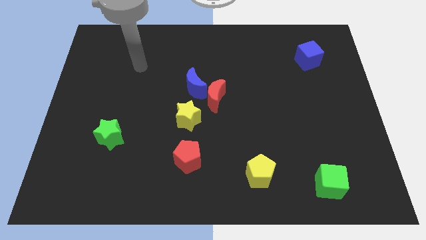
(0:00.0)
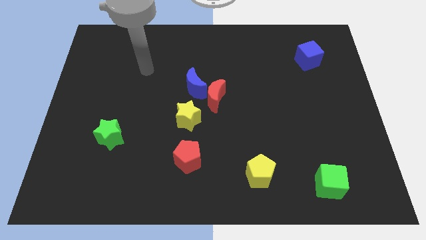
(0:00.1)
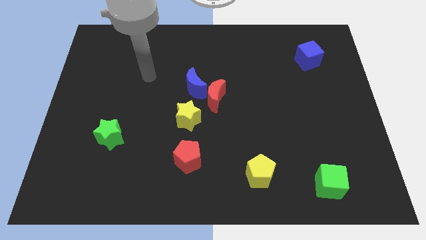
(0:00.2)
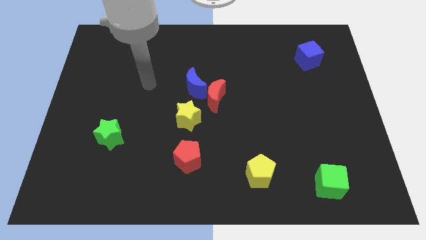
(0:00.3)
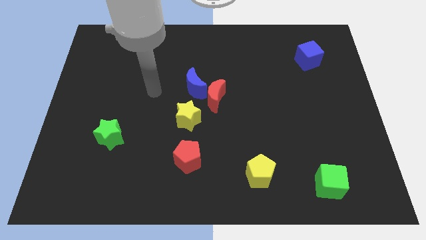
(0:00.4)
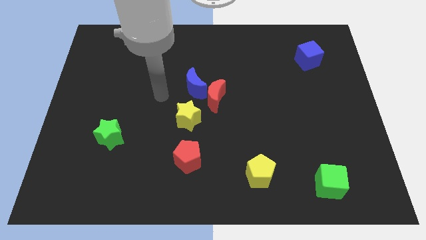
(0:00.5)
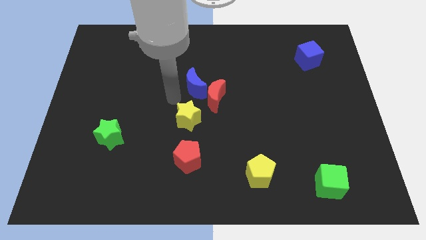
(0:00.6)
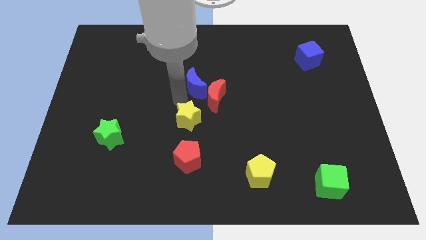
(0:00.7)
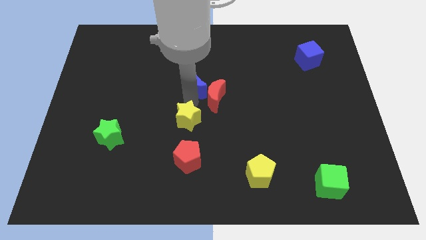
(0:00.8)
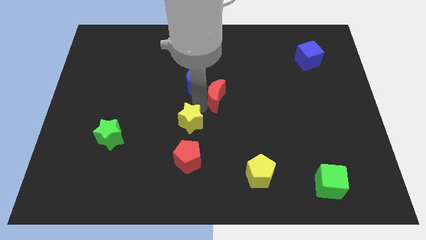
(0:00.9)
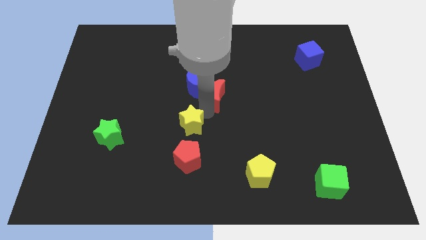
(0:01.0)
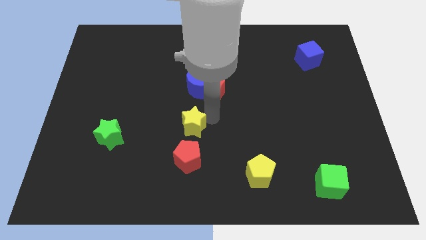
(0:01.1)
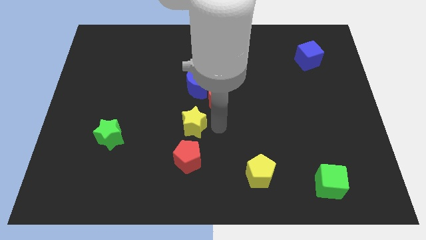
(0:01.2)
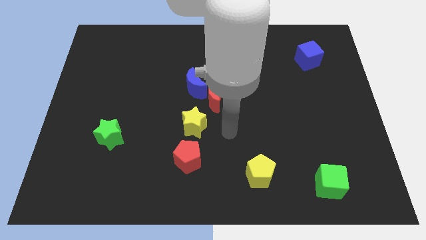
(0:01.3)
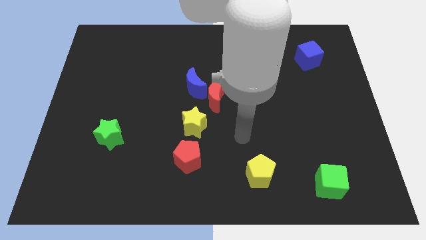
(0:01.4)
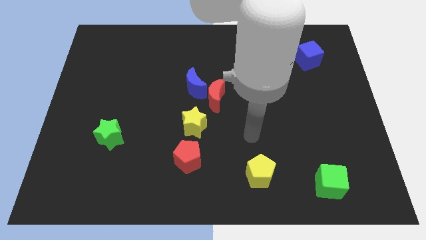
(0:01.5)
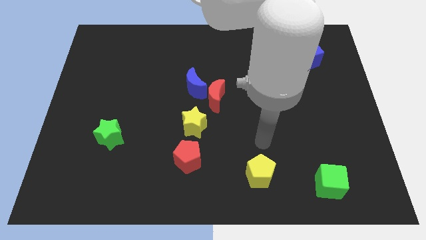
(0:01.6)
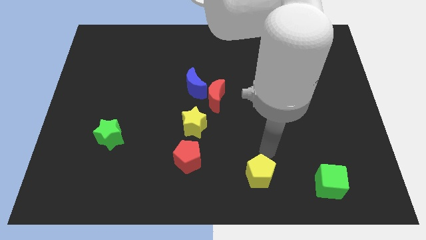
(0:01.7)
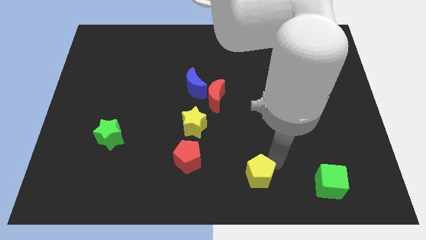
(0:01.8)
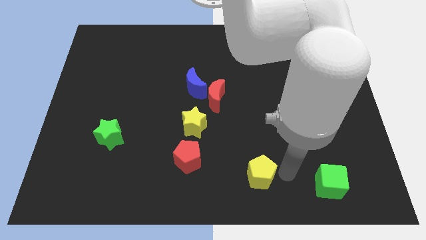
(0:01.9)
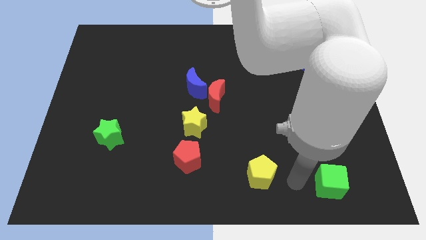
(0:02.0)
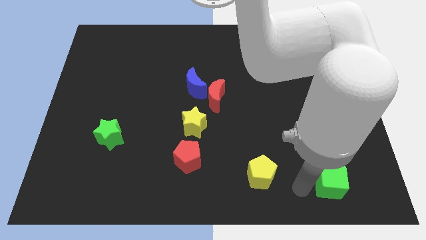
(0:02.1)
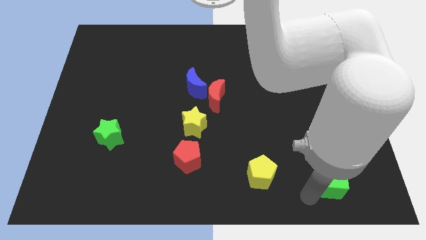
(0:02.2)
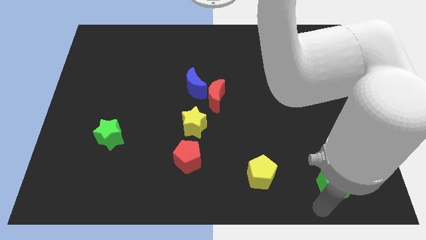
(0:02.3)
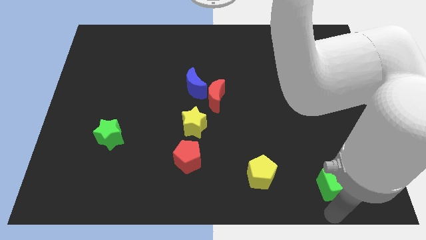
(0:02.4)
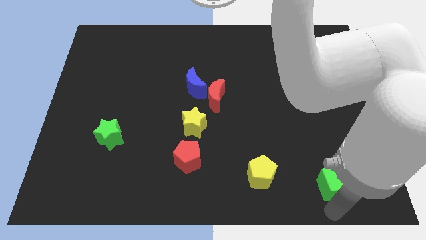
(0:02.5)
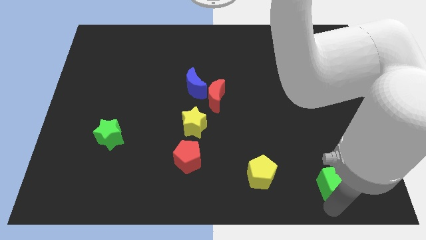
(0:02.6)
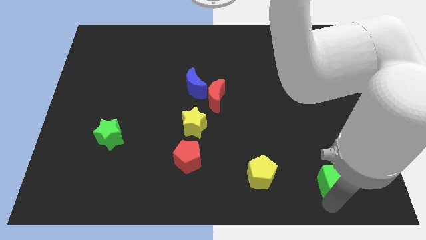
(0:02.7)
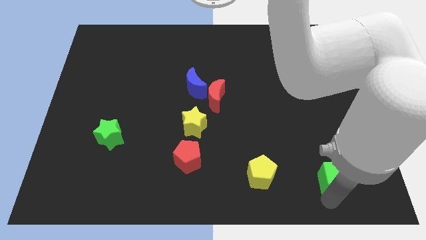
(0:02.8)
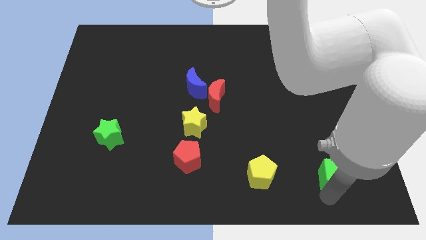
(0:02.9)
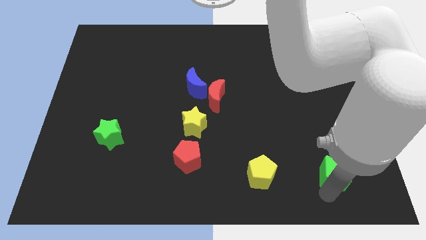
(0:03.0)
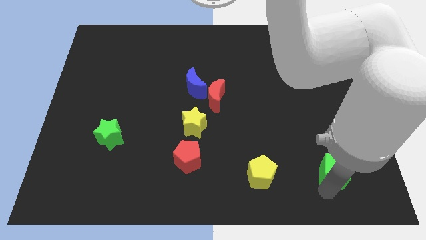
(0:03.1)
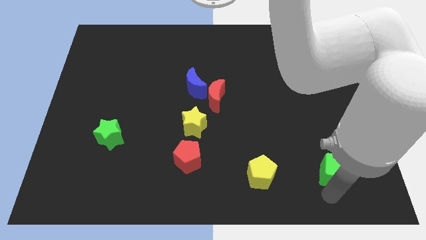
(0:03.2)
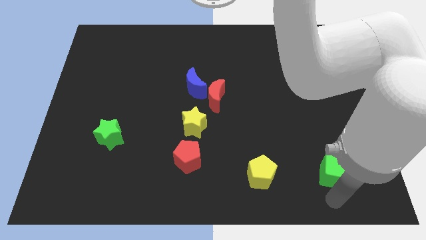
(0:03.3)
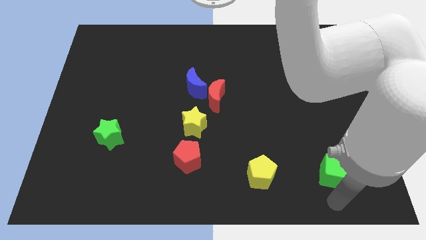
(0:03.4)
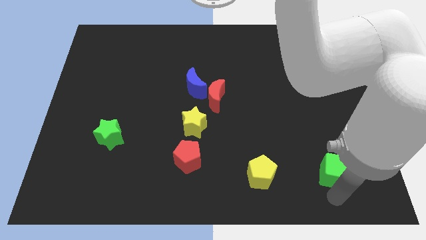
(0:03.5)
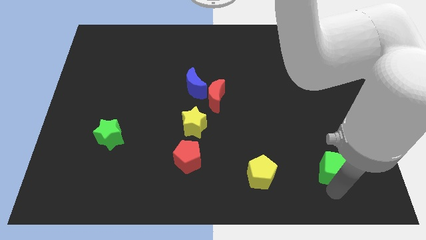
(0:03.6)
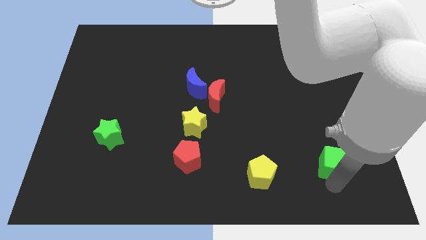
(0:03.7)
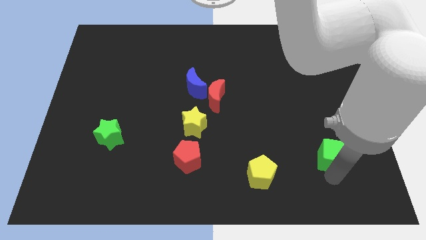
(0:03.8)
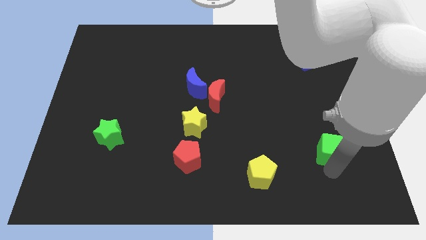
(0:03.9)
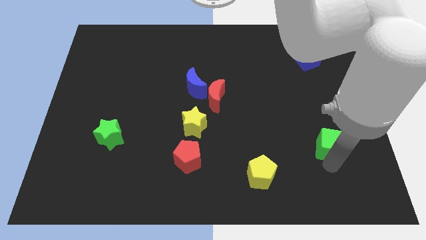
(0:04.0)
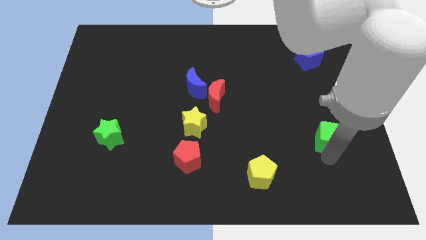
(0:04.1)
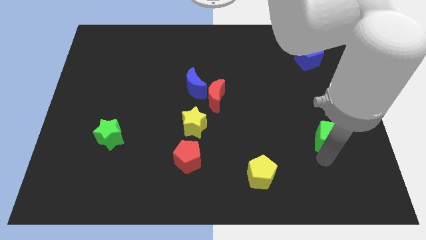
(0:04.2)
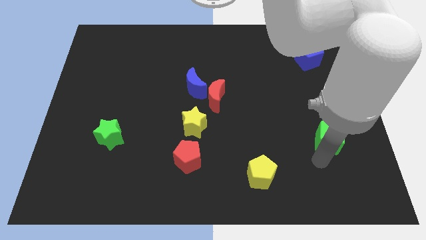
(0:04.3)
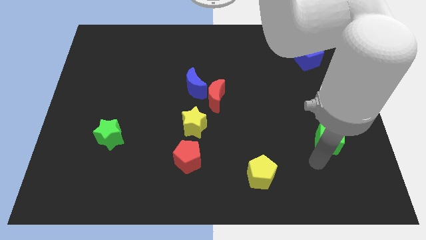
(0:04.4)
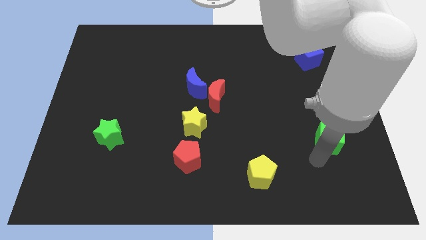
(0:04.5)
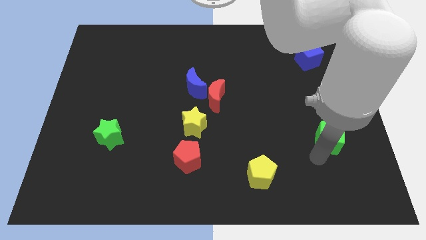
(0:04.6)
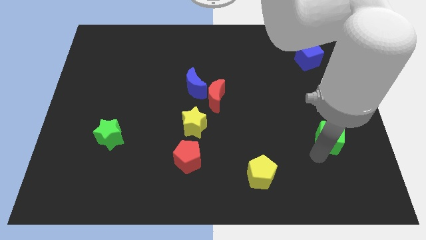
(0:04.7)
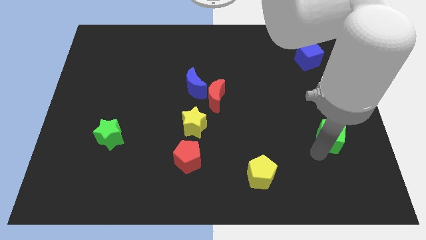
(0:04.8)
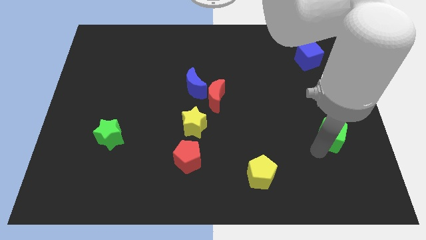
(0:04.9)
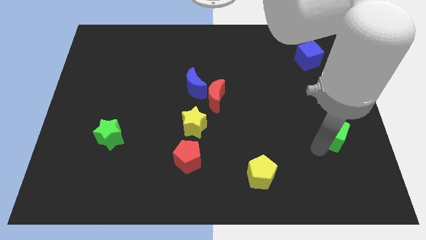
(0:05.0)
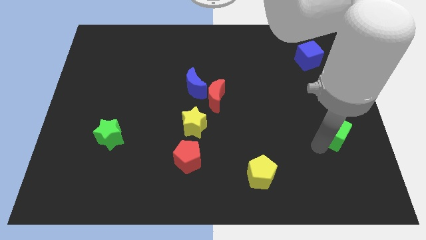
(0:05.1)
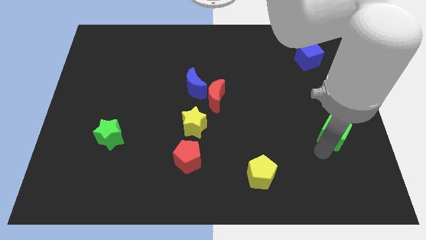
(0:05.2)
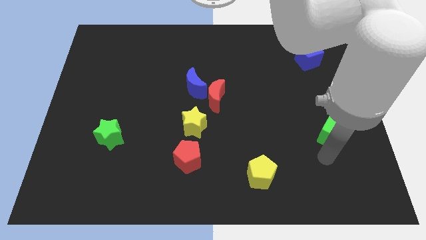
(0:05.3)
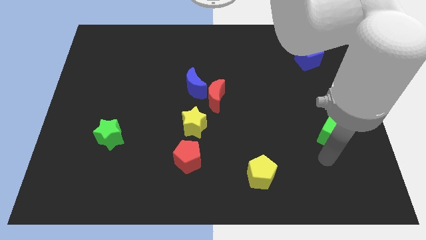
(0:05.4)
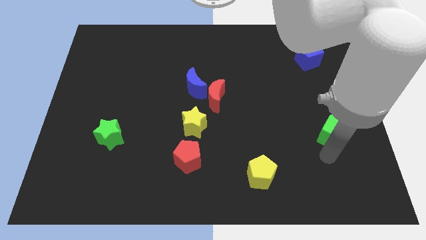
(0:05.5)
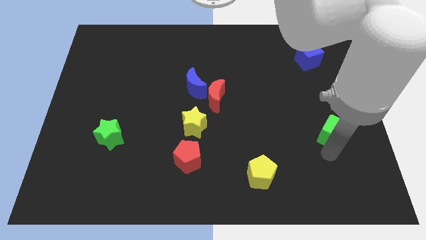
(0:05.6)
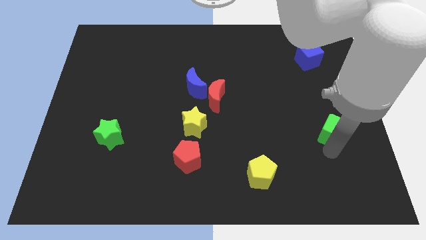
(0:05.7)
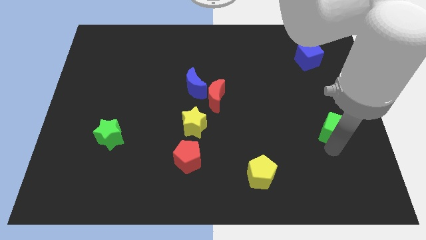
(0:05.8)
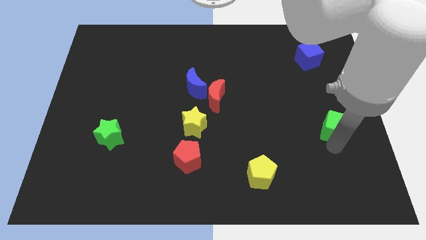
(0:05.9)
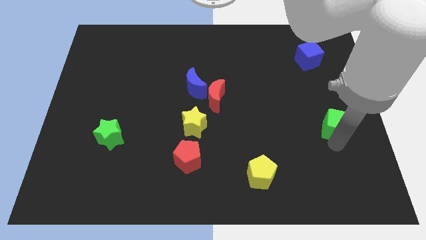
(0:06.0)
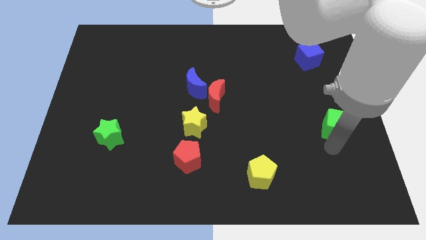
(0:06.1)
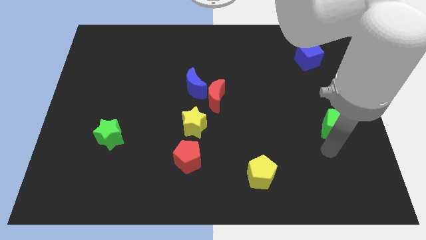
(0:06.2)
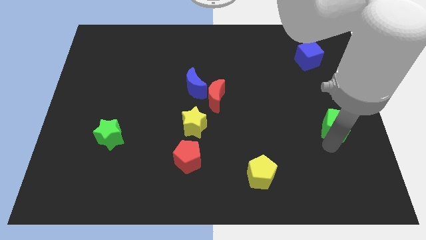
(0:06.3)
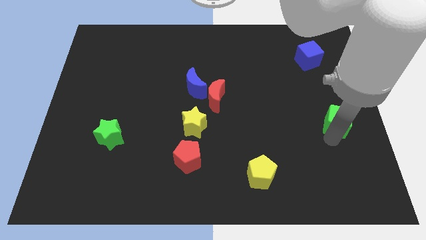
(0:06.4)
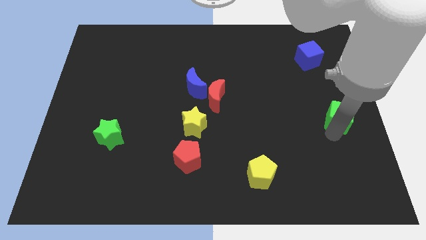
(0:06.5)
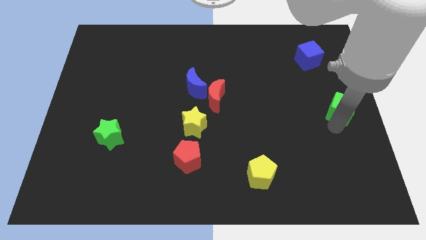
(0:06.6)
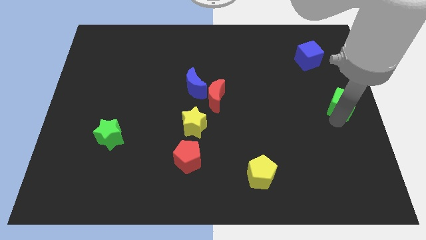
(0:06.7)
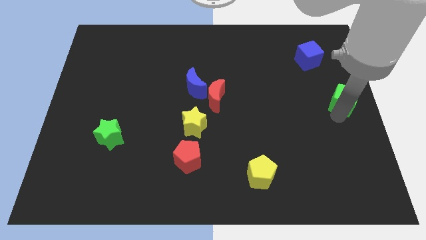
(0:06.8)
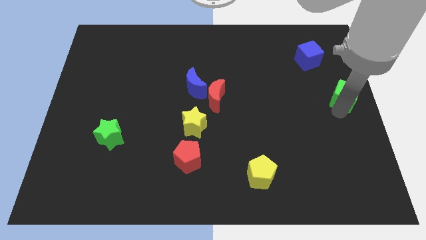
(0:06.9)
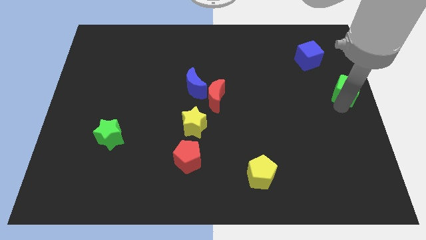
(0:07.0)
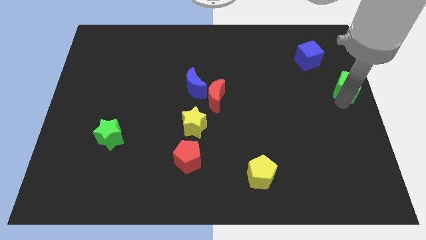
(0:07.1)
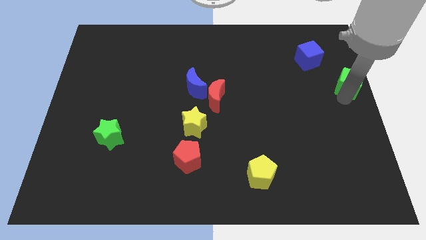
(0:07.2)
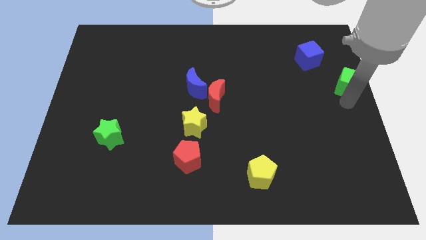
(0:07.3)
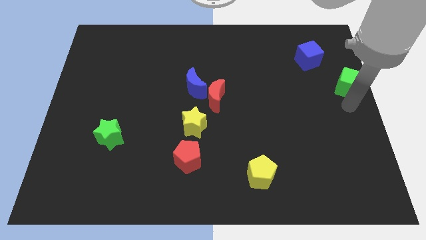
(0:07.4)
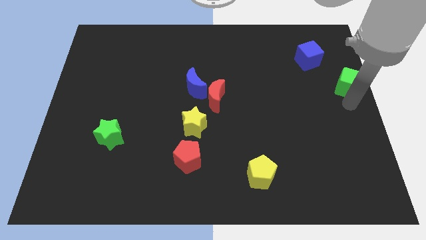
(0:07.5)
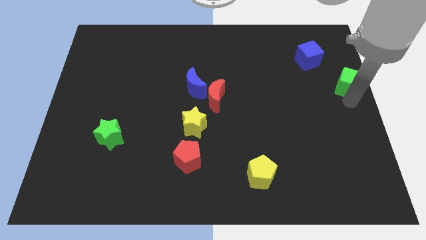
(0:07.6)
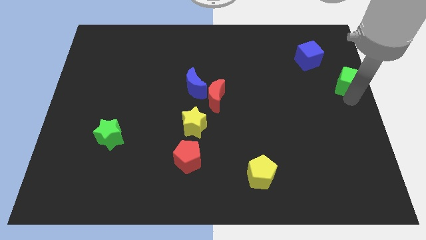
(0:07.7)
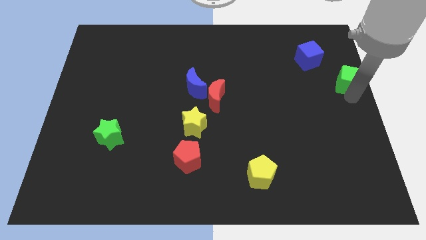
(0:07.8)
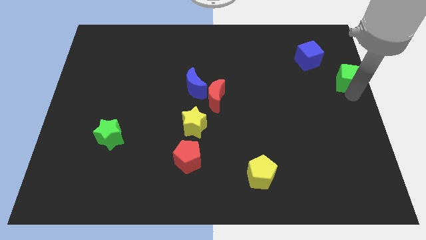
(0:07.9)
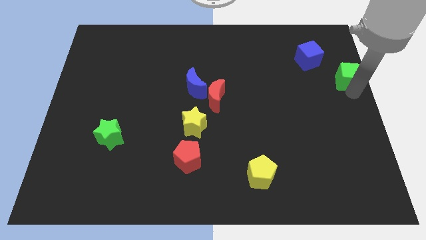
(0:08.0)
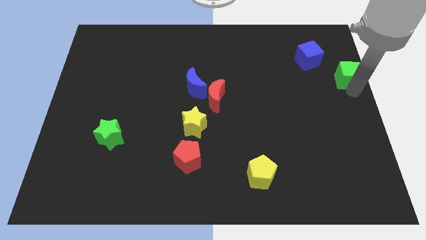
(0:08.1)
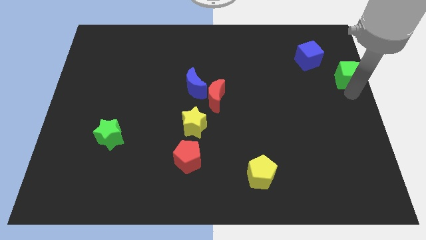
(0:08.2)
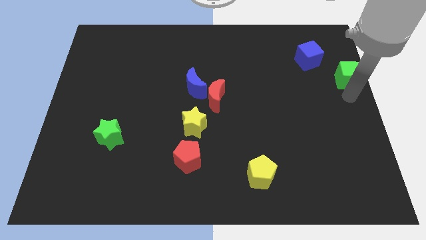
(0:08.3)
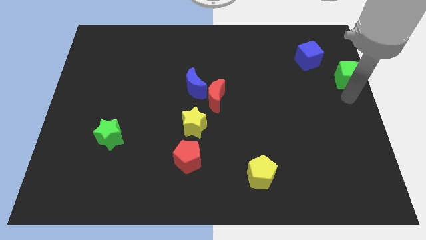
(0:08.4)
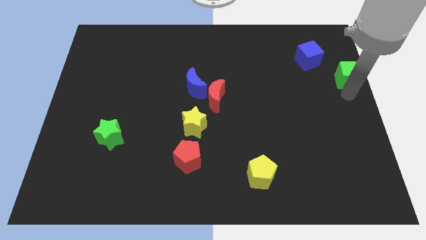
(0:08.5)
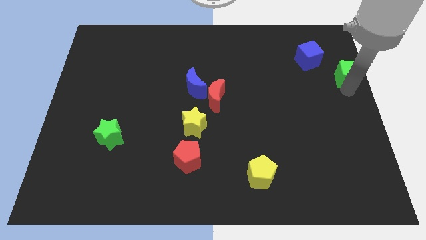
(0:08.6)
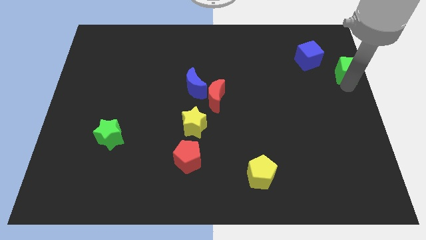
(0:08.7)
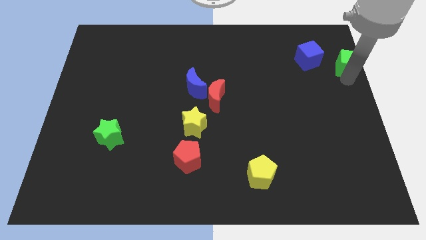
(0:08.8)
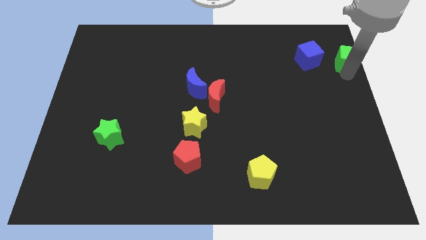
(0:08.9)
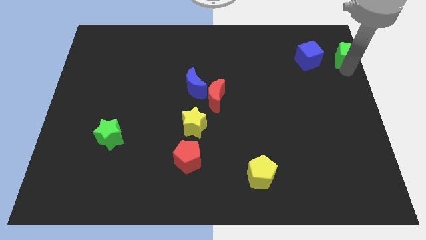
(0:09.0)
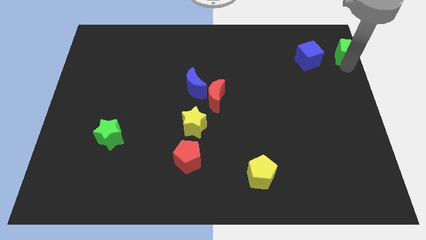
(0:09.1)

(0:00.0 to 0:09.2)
move the green cube to the top right corner
